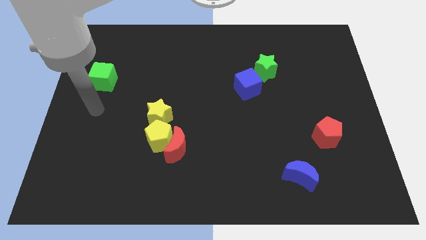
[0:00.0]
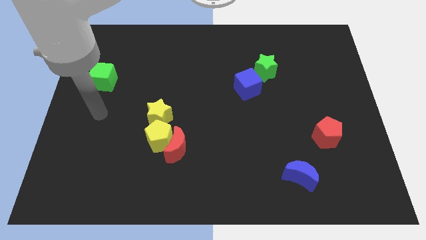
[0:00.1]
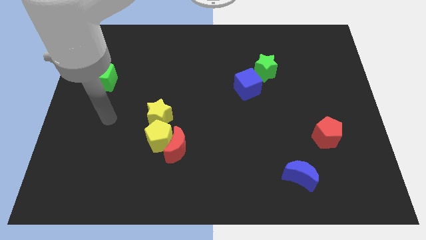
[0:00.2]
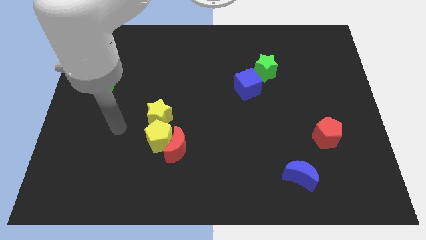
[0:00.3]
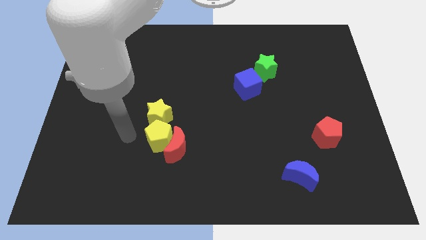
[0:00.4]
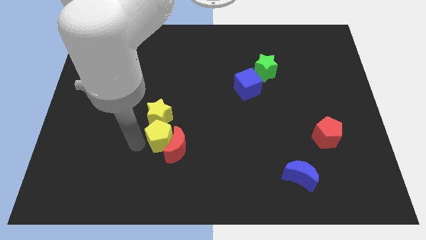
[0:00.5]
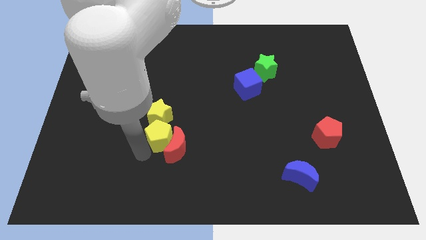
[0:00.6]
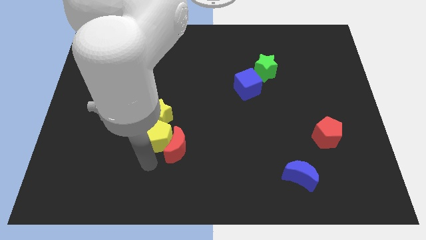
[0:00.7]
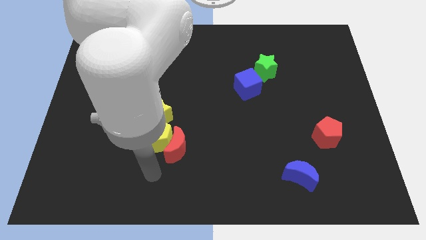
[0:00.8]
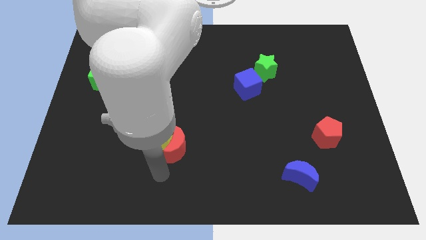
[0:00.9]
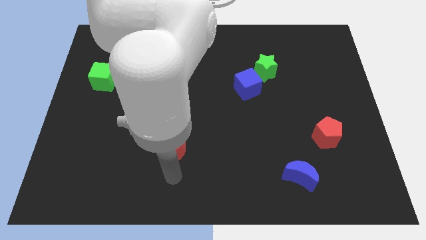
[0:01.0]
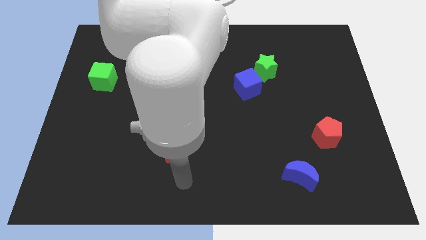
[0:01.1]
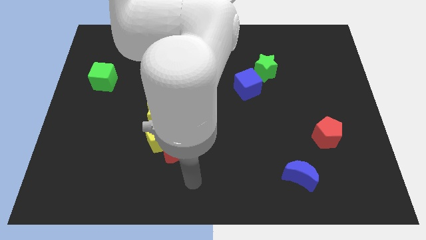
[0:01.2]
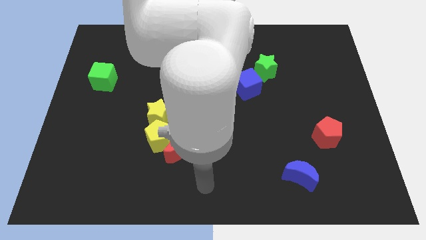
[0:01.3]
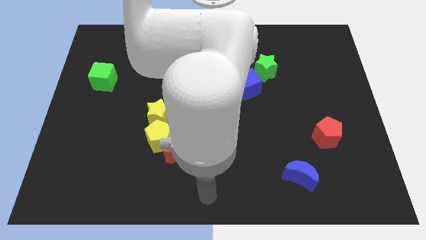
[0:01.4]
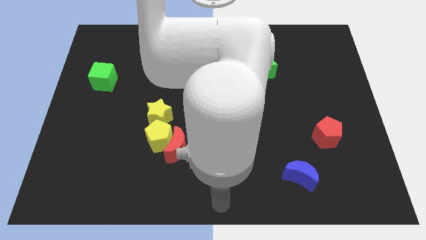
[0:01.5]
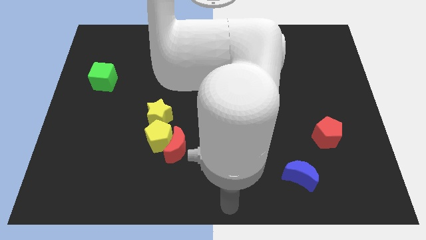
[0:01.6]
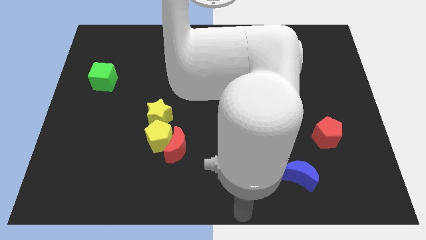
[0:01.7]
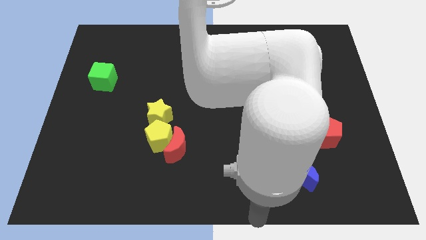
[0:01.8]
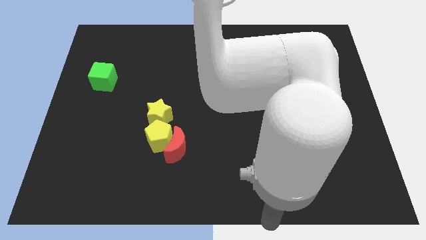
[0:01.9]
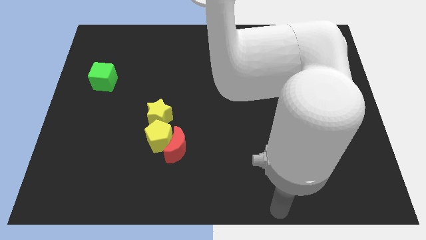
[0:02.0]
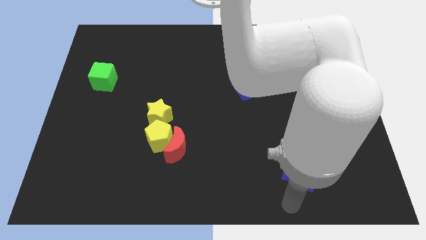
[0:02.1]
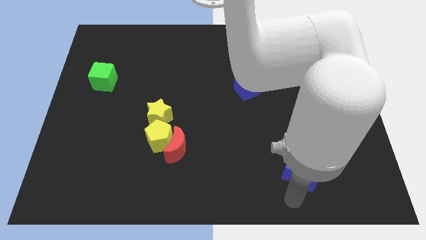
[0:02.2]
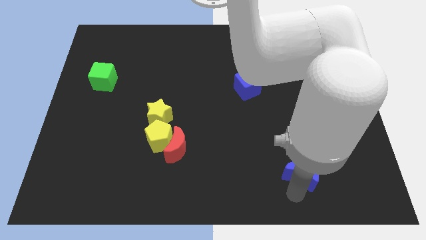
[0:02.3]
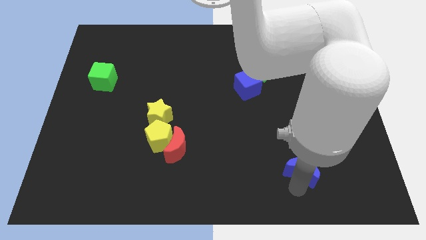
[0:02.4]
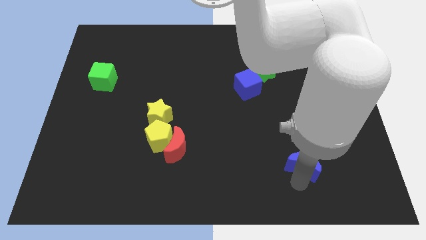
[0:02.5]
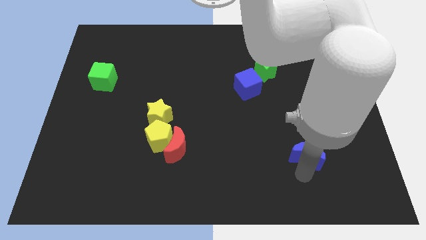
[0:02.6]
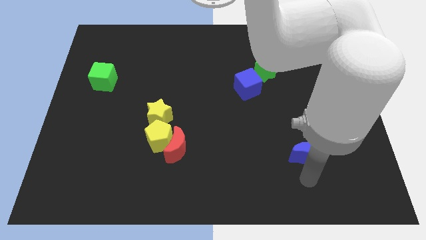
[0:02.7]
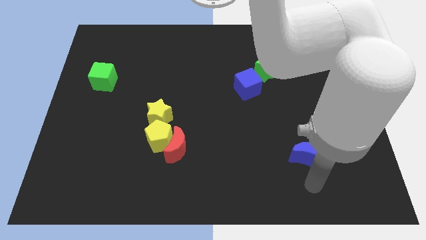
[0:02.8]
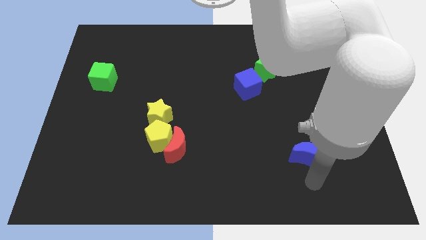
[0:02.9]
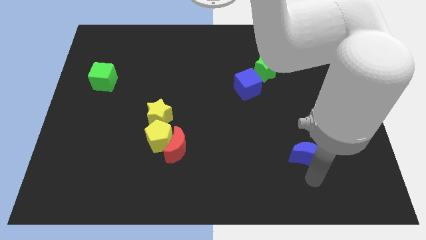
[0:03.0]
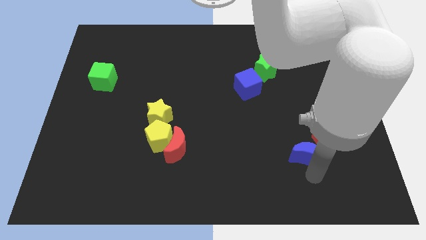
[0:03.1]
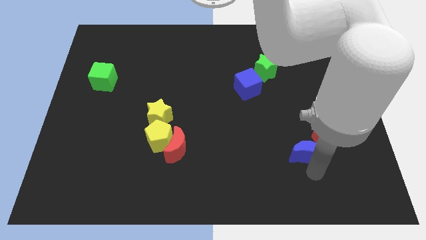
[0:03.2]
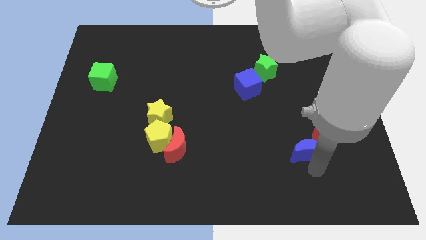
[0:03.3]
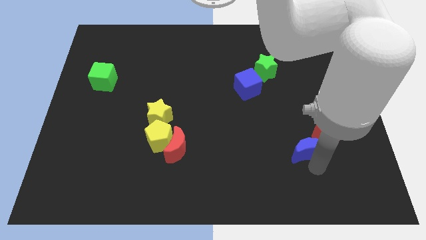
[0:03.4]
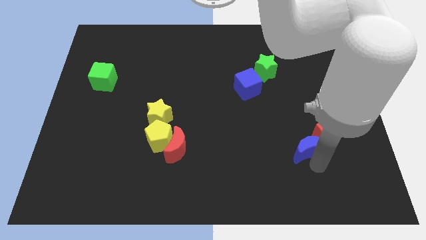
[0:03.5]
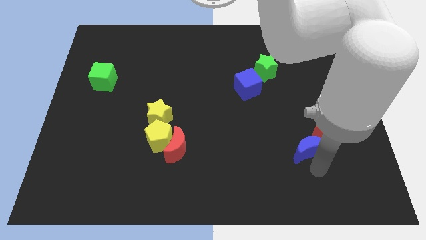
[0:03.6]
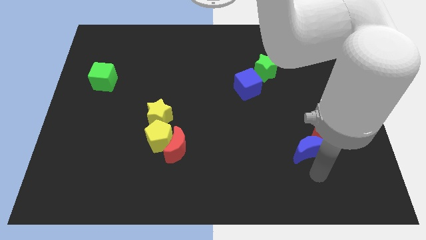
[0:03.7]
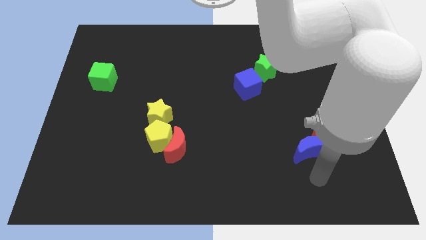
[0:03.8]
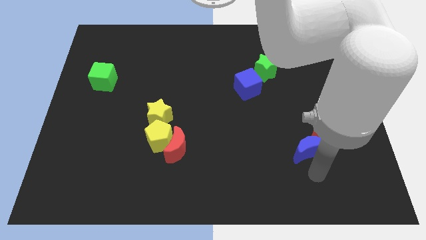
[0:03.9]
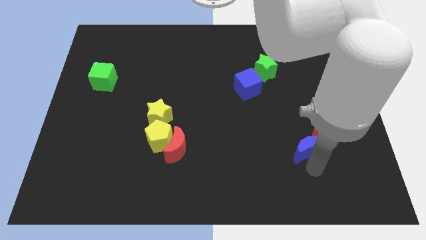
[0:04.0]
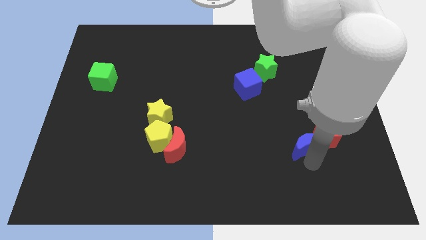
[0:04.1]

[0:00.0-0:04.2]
slide the blue moon a little up

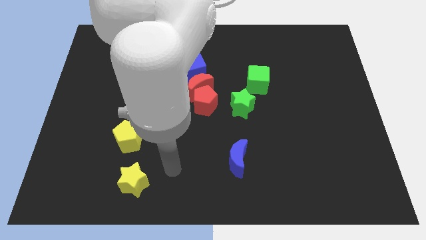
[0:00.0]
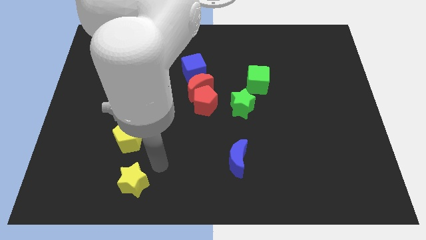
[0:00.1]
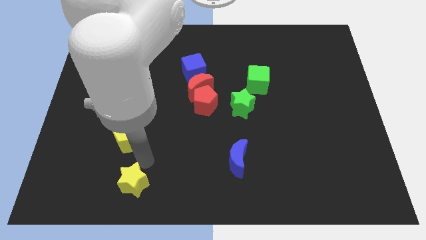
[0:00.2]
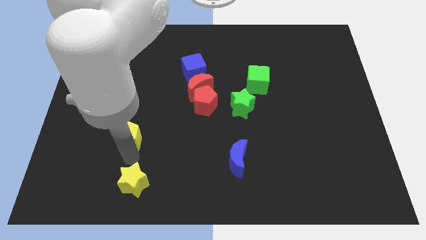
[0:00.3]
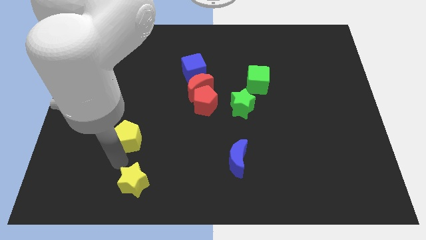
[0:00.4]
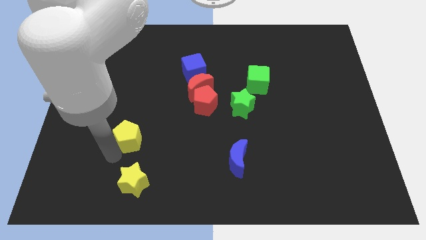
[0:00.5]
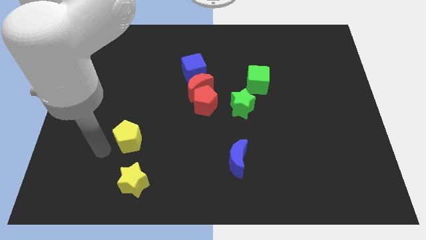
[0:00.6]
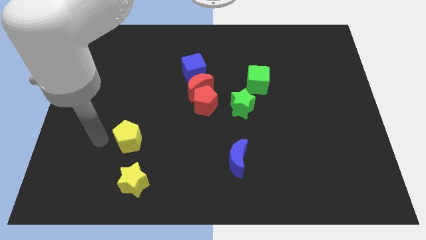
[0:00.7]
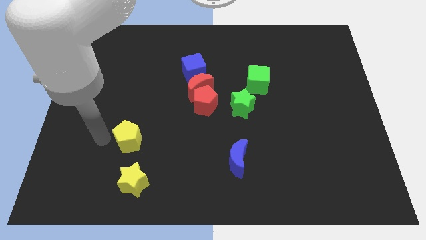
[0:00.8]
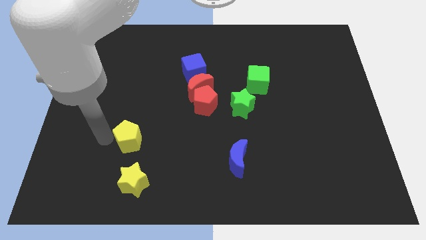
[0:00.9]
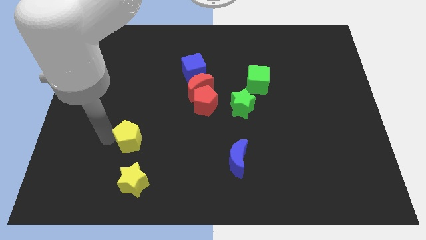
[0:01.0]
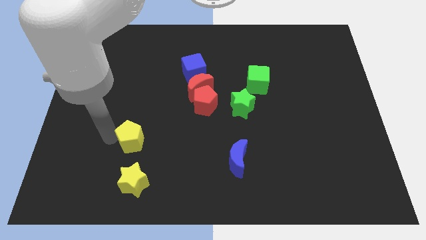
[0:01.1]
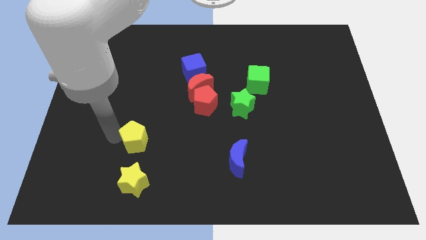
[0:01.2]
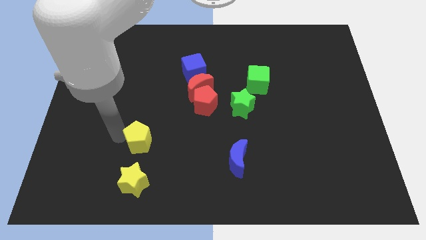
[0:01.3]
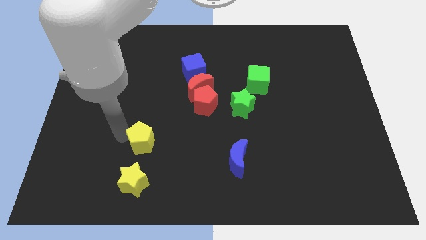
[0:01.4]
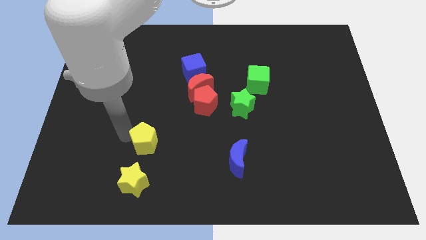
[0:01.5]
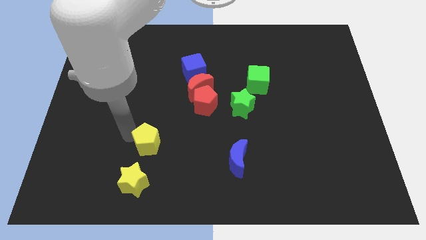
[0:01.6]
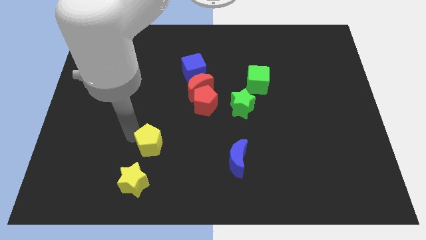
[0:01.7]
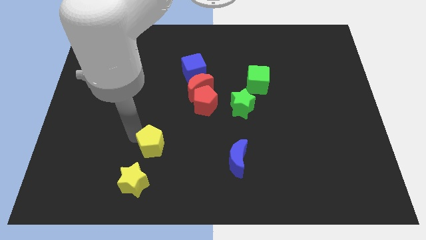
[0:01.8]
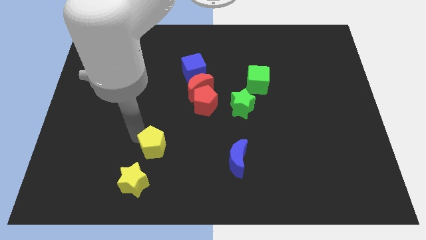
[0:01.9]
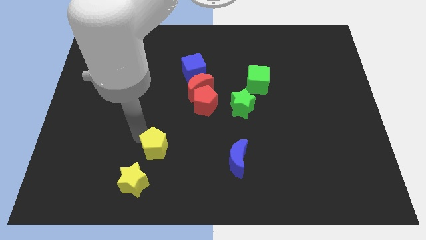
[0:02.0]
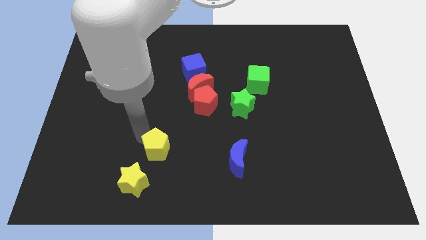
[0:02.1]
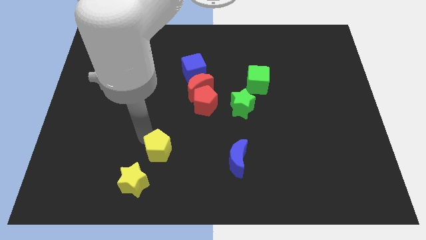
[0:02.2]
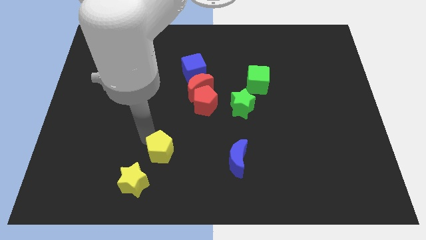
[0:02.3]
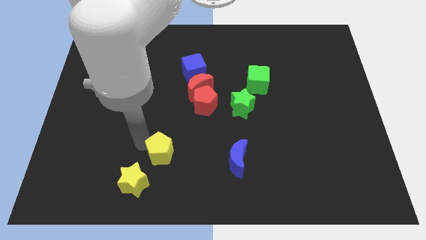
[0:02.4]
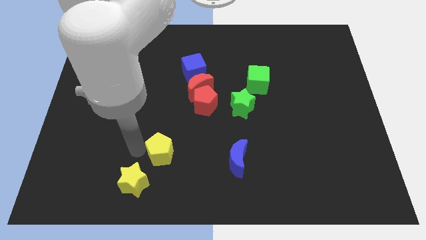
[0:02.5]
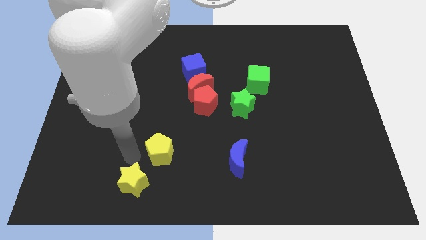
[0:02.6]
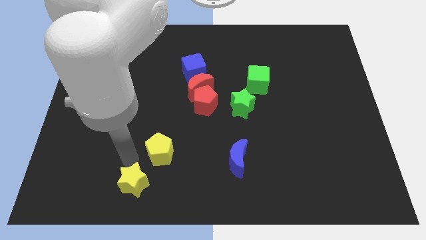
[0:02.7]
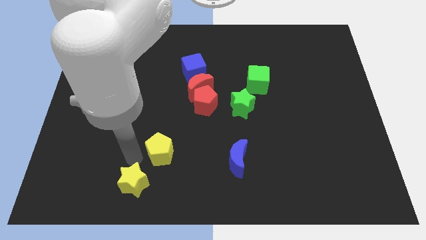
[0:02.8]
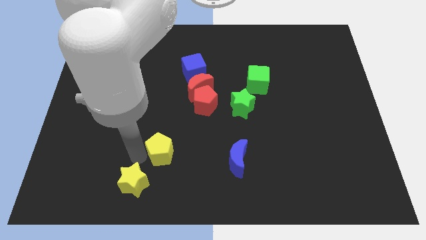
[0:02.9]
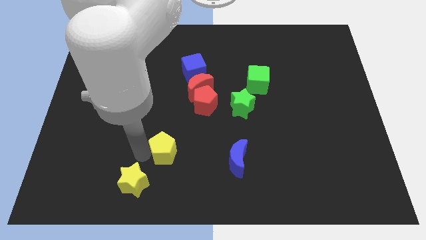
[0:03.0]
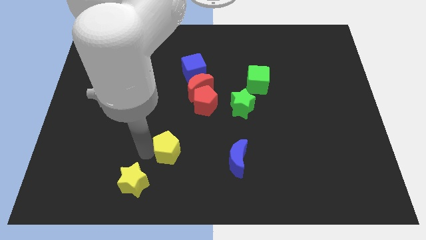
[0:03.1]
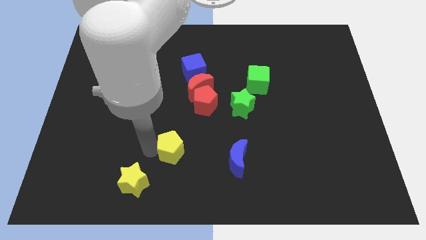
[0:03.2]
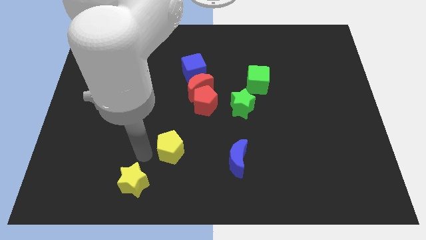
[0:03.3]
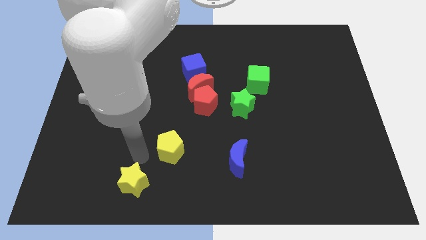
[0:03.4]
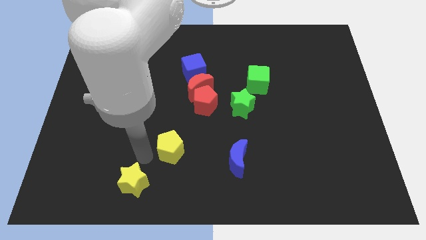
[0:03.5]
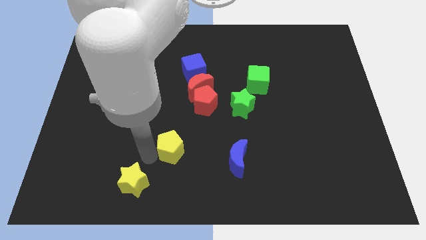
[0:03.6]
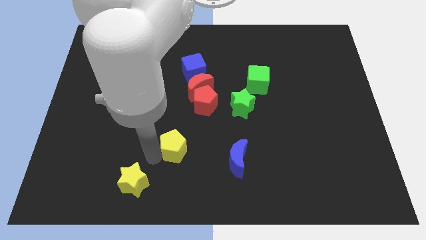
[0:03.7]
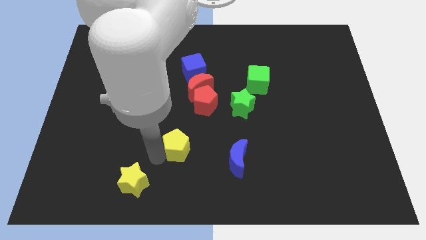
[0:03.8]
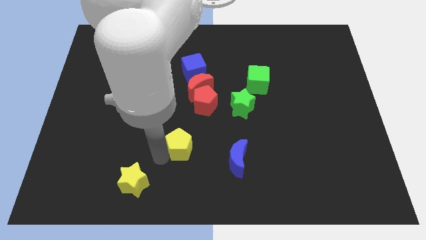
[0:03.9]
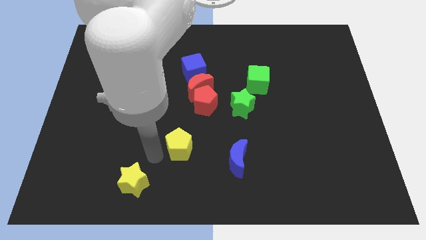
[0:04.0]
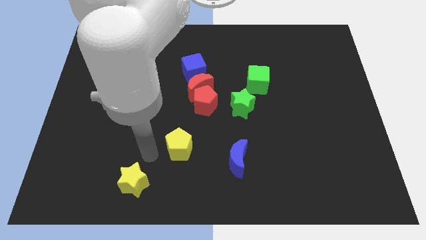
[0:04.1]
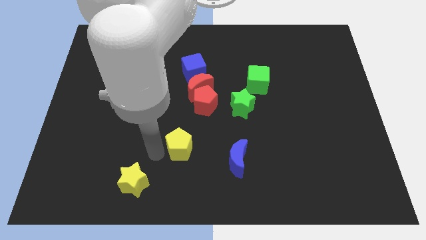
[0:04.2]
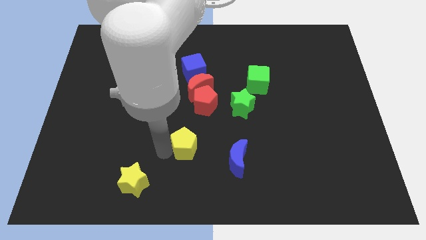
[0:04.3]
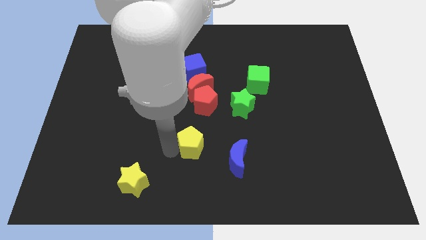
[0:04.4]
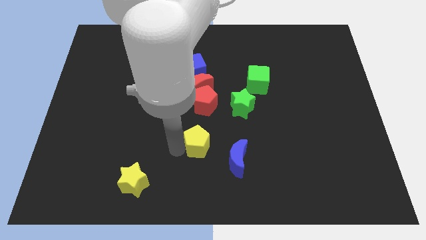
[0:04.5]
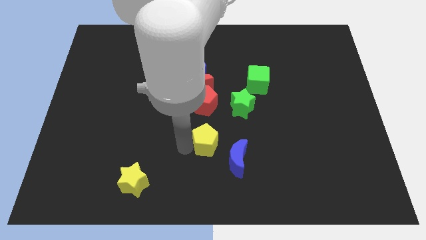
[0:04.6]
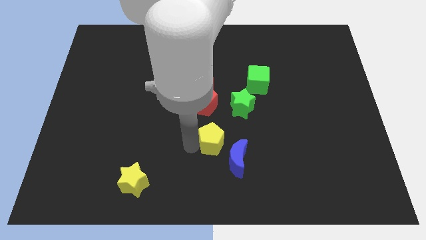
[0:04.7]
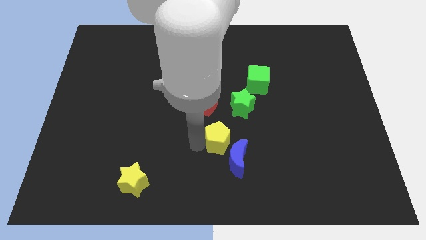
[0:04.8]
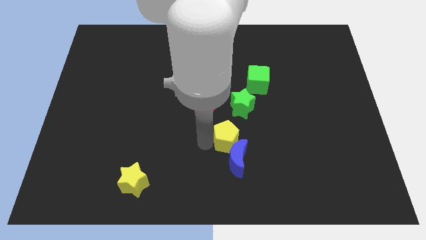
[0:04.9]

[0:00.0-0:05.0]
push the yellow pentagon right
